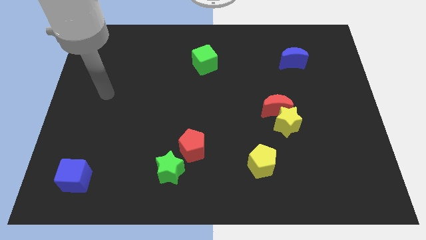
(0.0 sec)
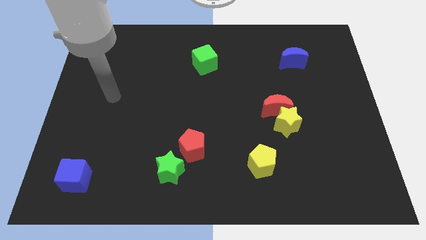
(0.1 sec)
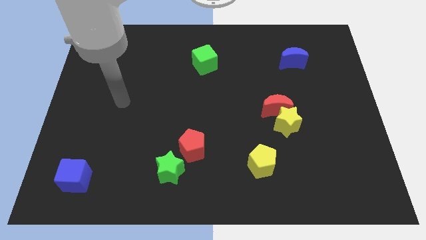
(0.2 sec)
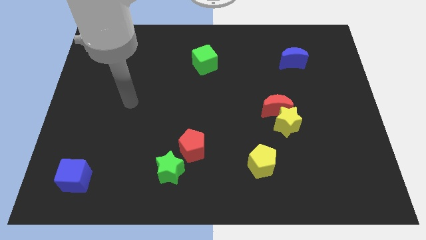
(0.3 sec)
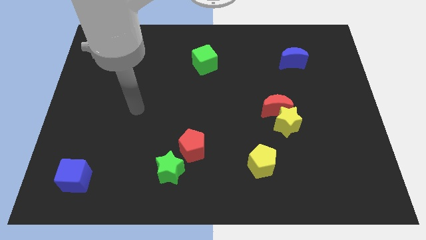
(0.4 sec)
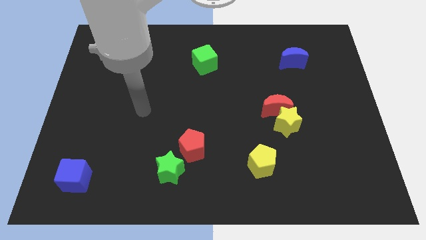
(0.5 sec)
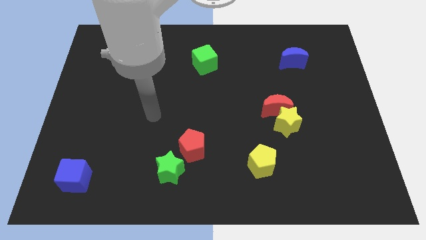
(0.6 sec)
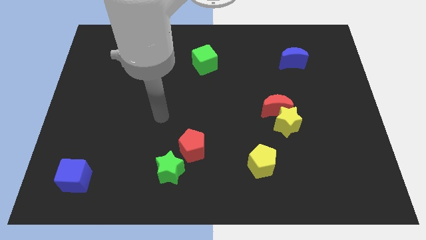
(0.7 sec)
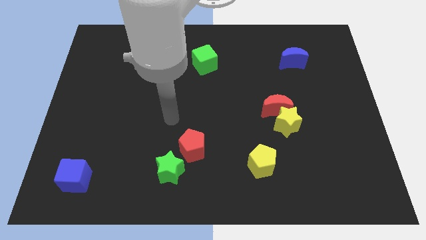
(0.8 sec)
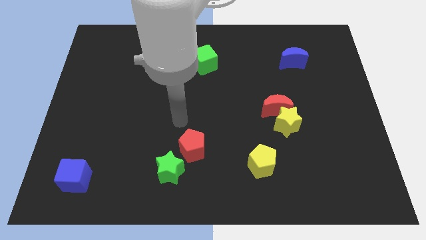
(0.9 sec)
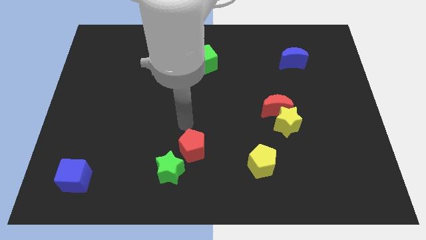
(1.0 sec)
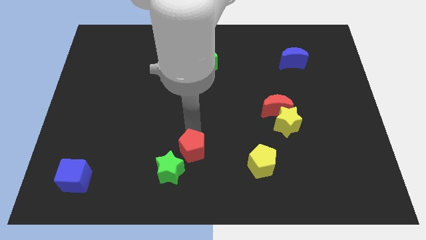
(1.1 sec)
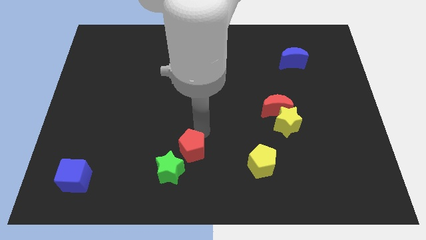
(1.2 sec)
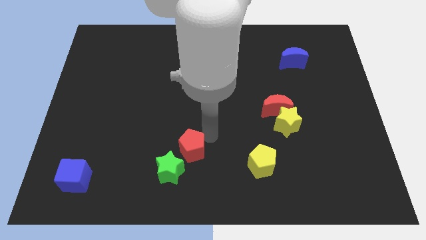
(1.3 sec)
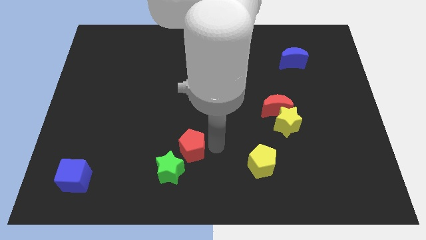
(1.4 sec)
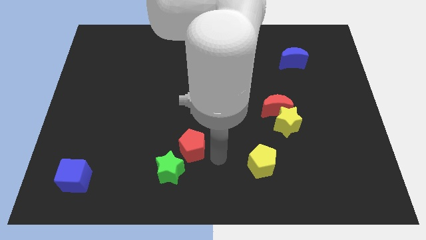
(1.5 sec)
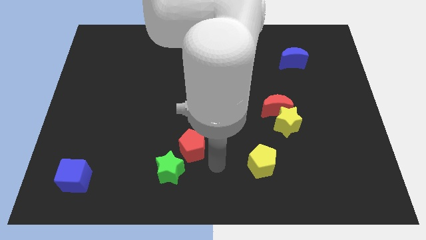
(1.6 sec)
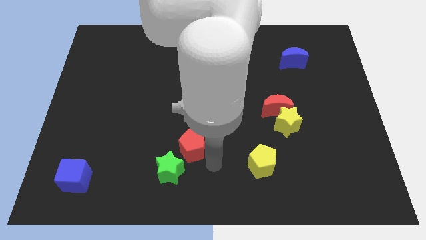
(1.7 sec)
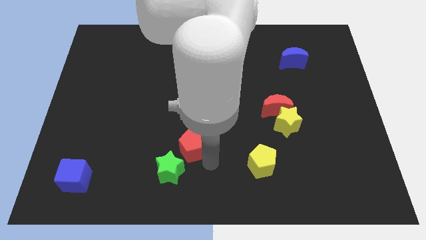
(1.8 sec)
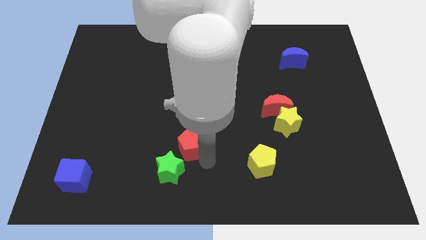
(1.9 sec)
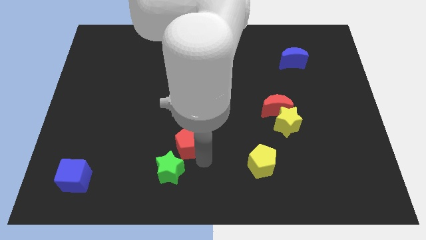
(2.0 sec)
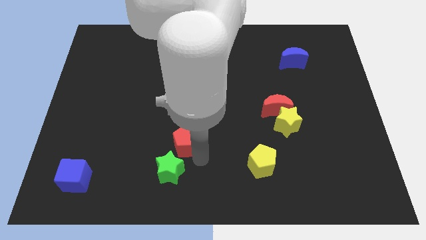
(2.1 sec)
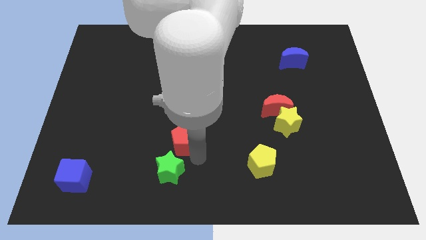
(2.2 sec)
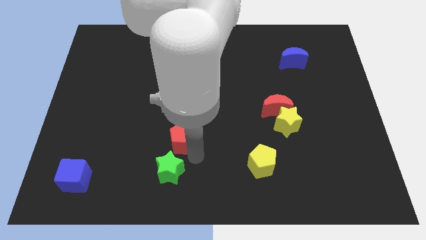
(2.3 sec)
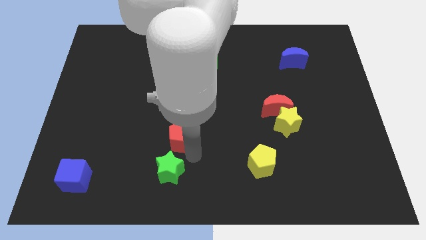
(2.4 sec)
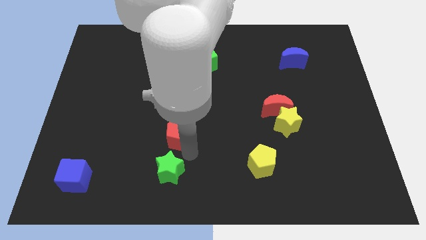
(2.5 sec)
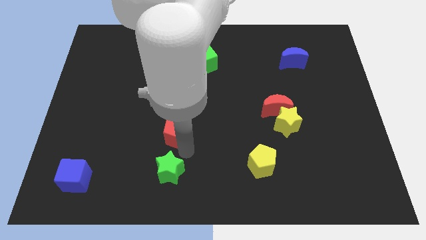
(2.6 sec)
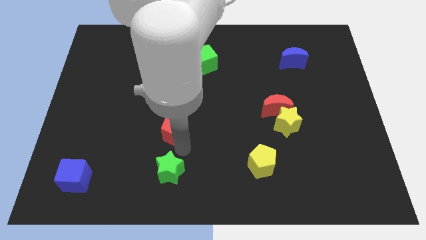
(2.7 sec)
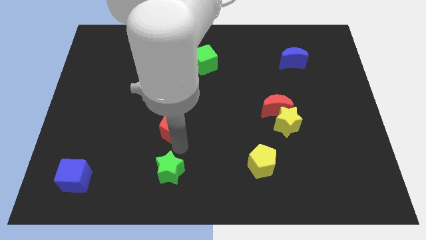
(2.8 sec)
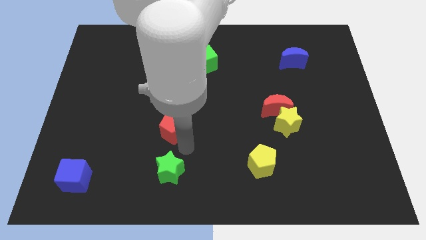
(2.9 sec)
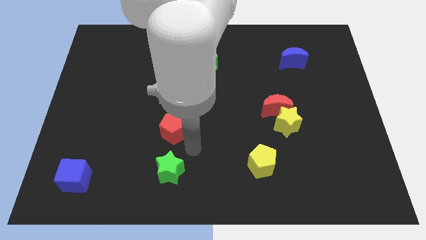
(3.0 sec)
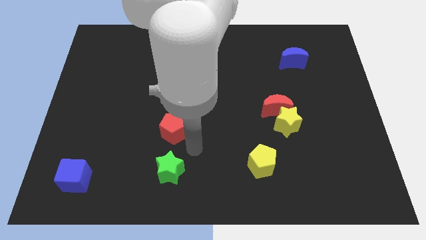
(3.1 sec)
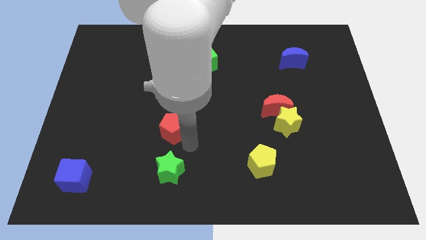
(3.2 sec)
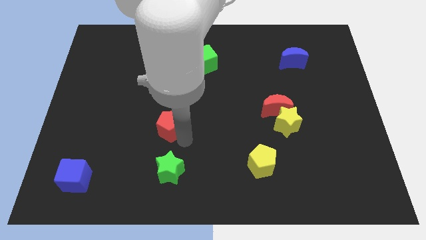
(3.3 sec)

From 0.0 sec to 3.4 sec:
slightly move the red pentagon upwards and then left

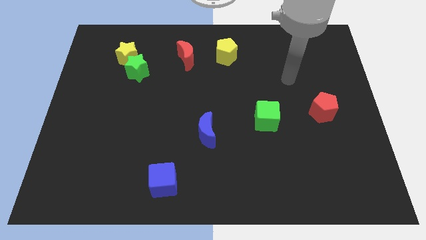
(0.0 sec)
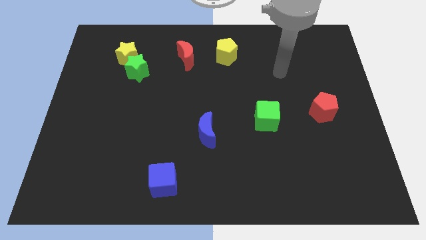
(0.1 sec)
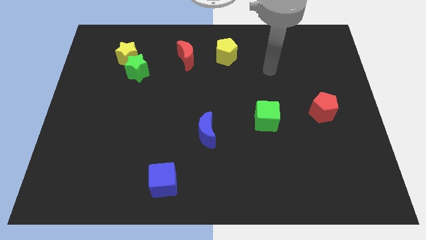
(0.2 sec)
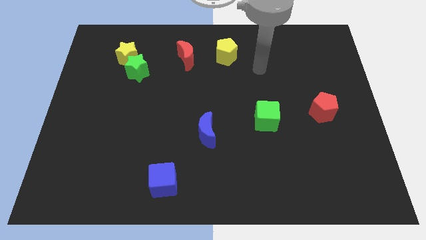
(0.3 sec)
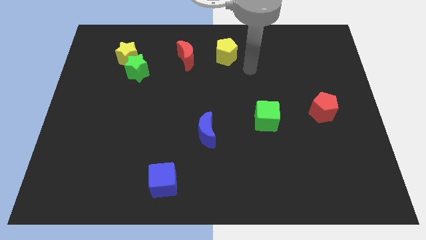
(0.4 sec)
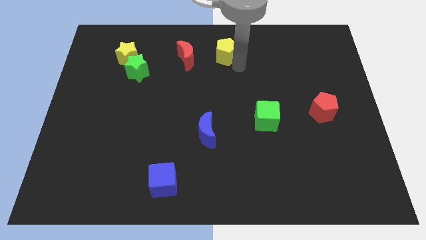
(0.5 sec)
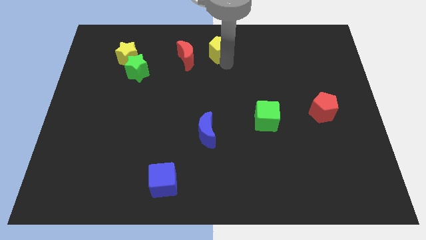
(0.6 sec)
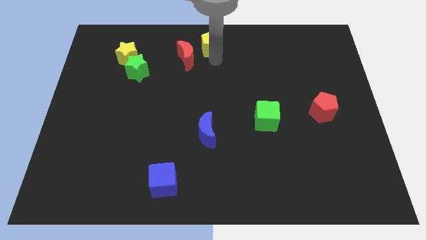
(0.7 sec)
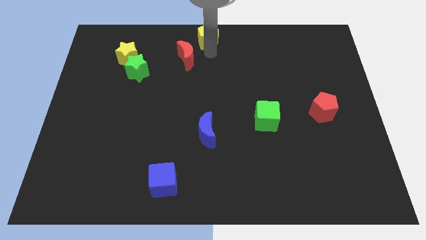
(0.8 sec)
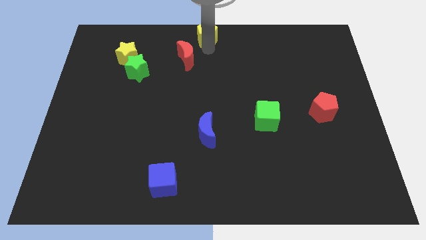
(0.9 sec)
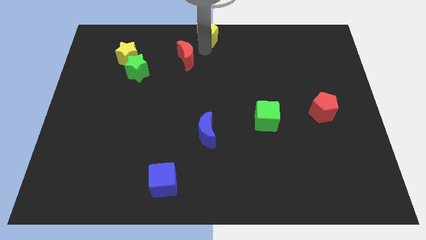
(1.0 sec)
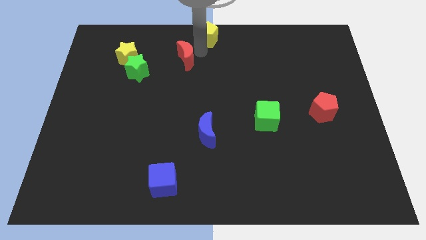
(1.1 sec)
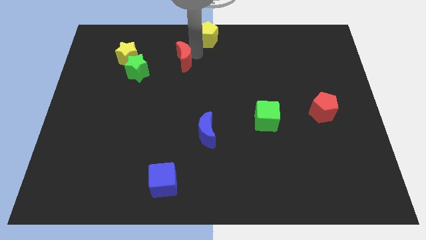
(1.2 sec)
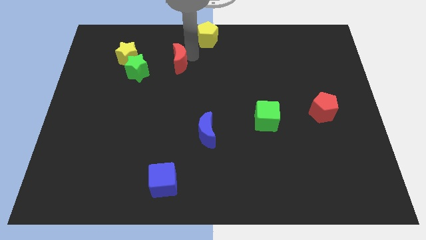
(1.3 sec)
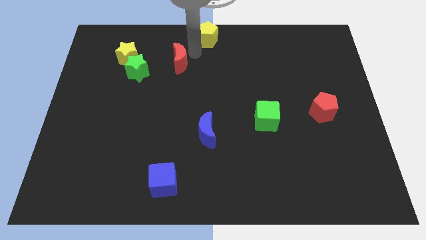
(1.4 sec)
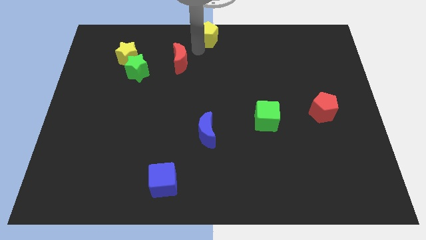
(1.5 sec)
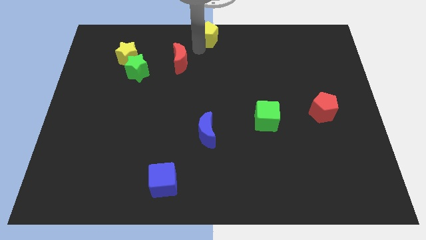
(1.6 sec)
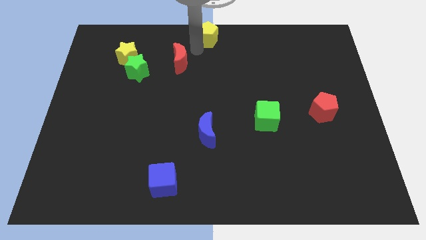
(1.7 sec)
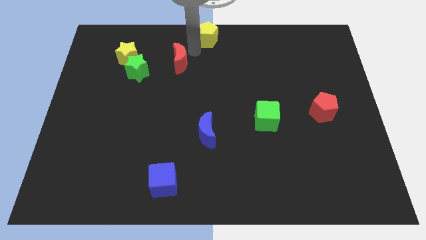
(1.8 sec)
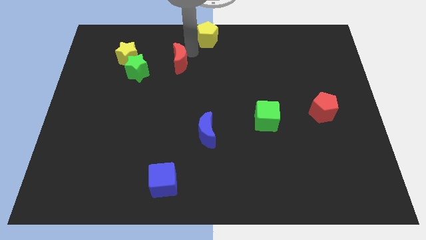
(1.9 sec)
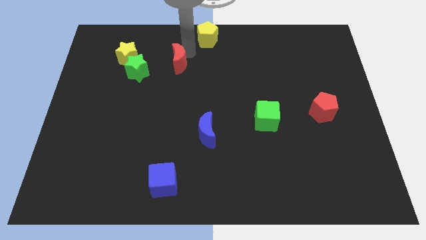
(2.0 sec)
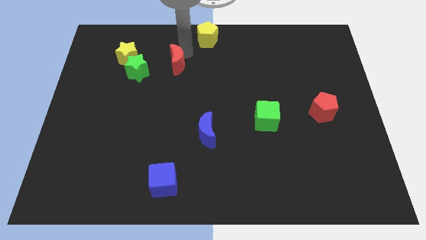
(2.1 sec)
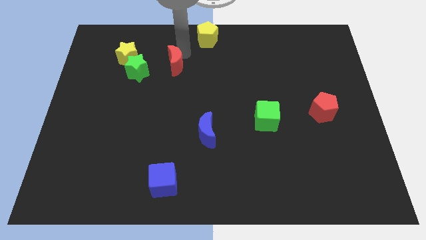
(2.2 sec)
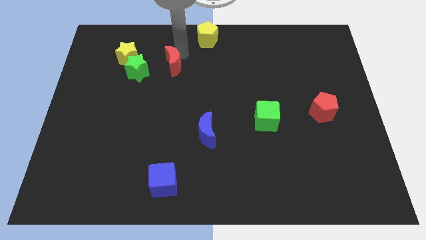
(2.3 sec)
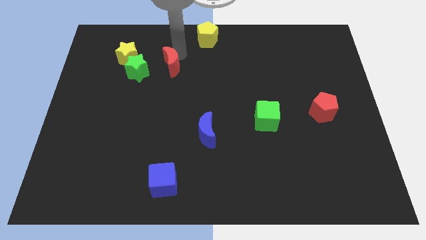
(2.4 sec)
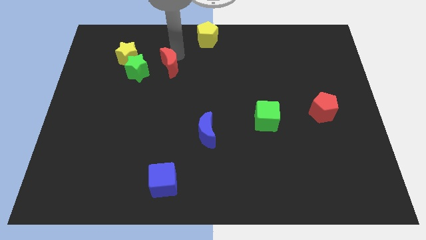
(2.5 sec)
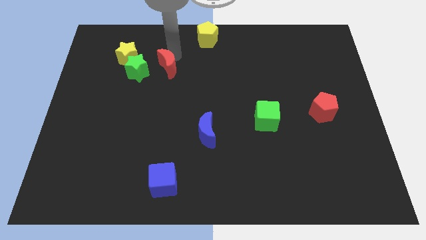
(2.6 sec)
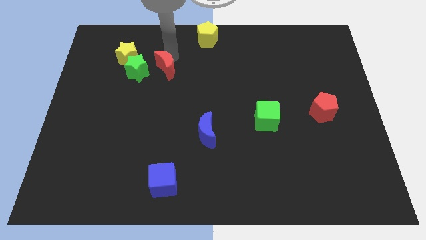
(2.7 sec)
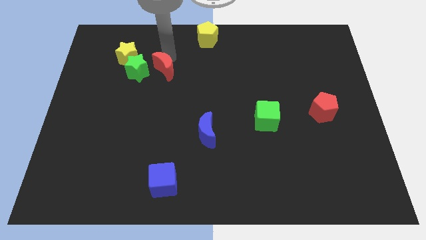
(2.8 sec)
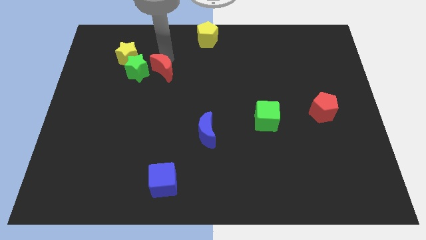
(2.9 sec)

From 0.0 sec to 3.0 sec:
move the red moon downwards and left somewhat

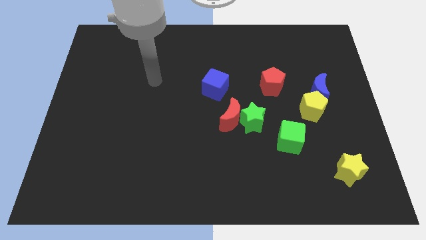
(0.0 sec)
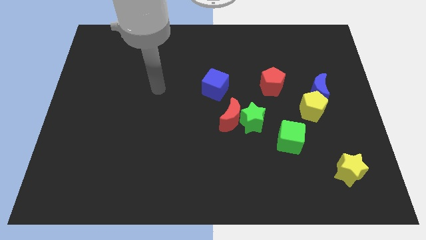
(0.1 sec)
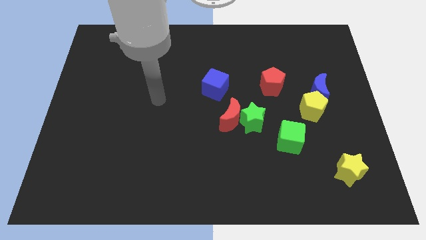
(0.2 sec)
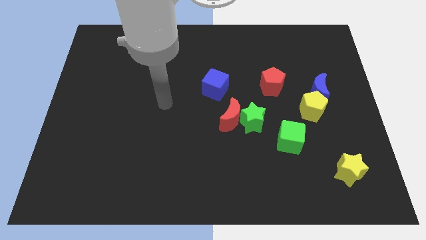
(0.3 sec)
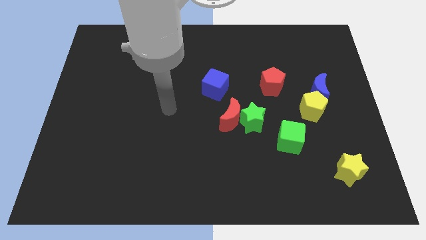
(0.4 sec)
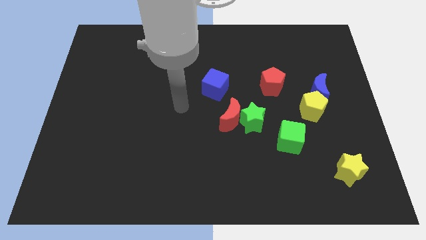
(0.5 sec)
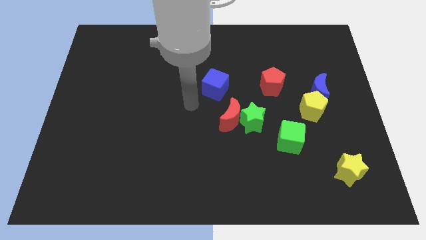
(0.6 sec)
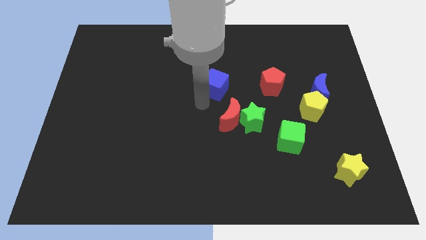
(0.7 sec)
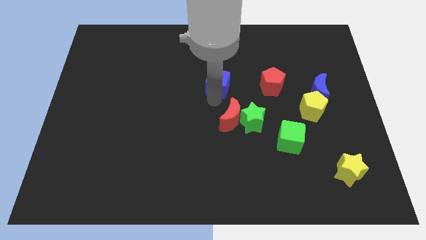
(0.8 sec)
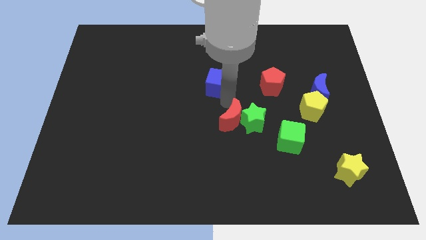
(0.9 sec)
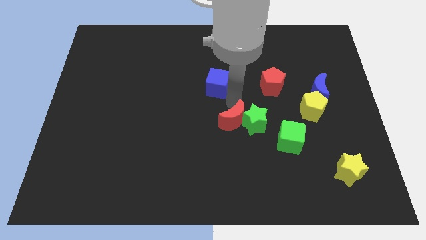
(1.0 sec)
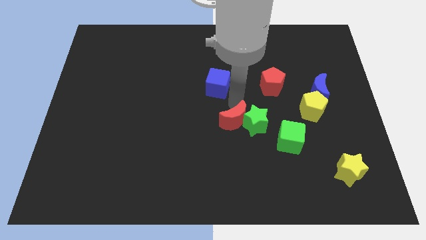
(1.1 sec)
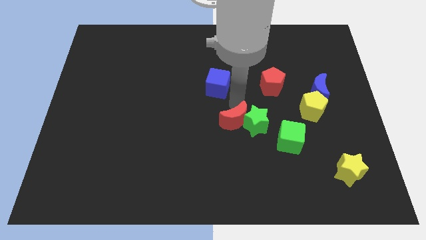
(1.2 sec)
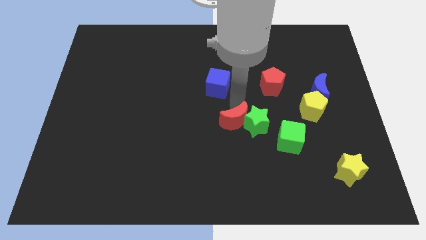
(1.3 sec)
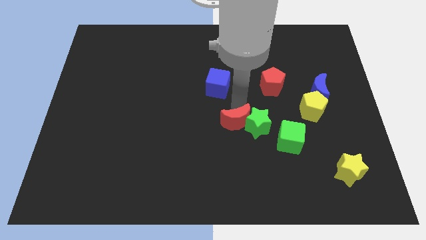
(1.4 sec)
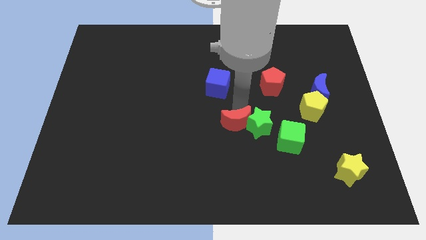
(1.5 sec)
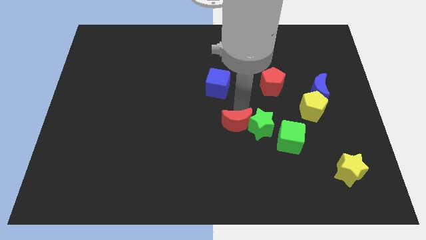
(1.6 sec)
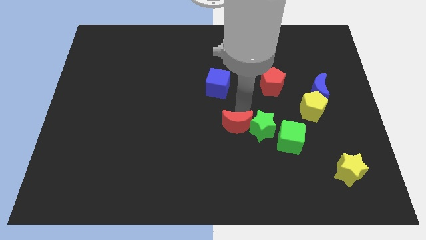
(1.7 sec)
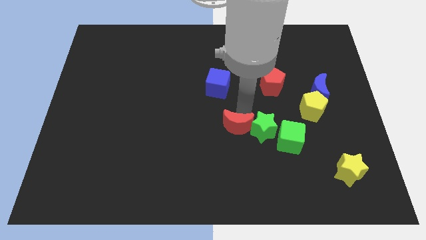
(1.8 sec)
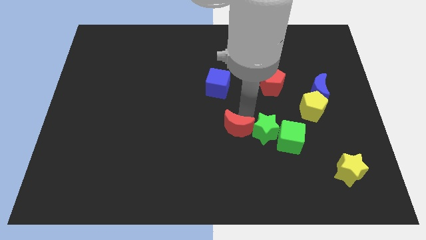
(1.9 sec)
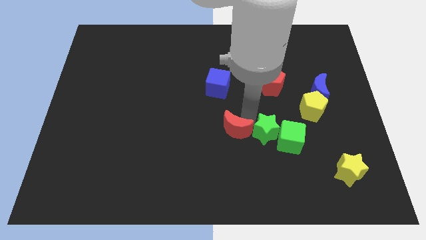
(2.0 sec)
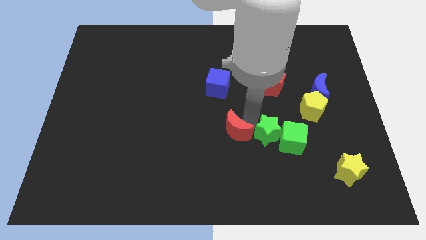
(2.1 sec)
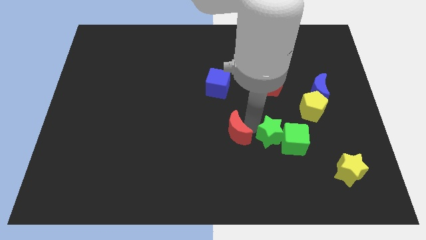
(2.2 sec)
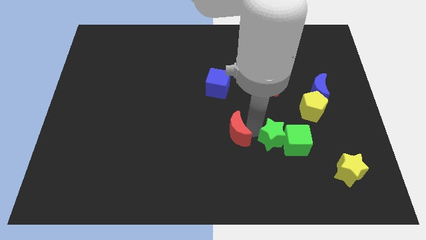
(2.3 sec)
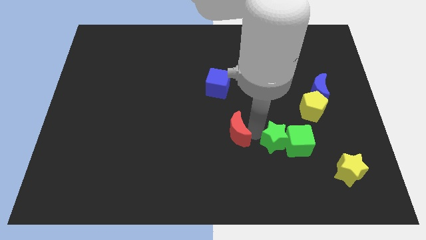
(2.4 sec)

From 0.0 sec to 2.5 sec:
slide the green star downwards and to the right a little
